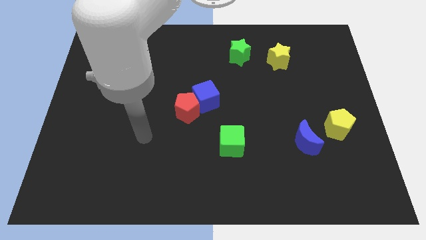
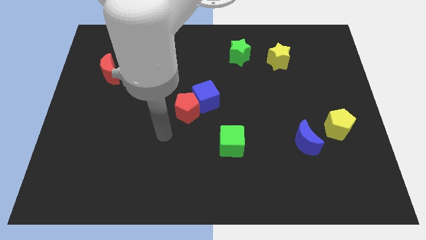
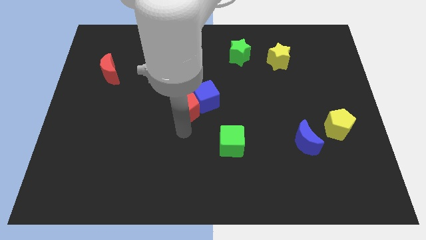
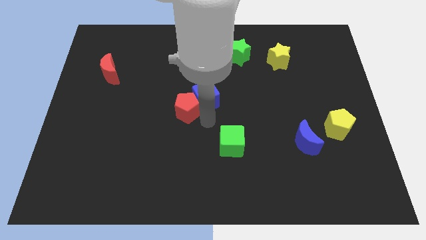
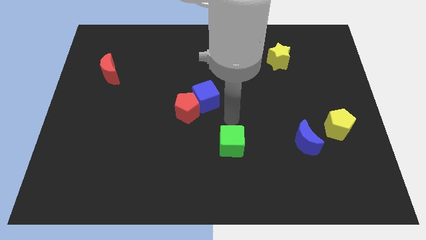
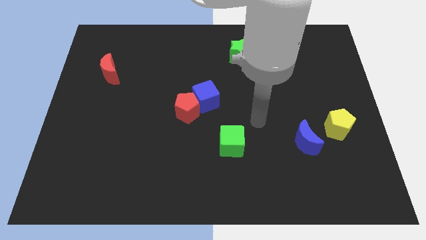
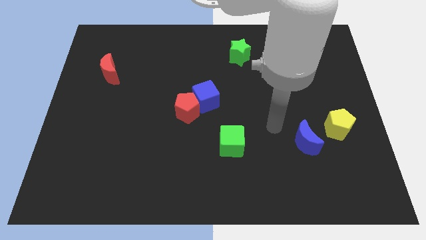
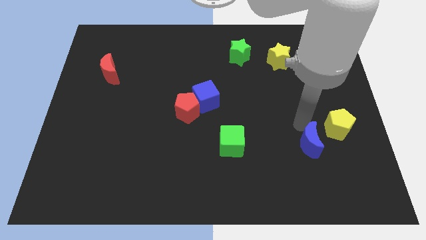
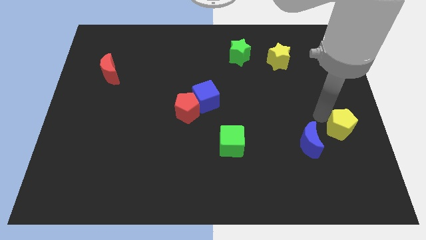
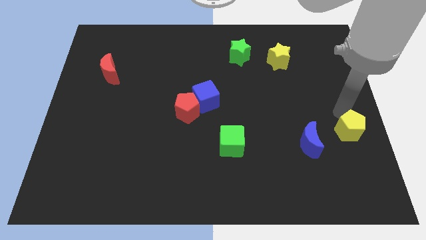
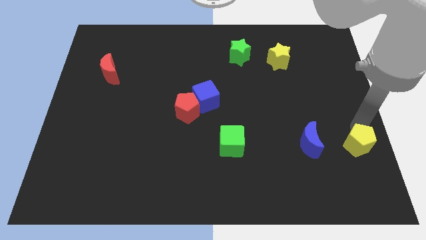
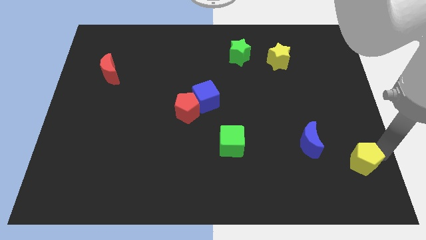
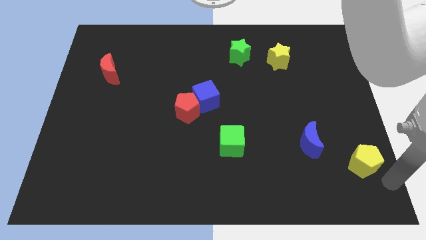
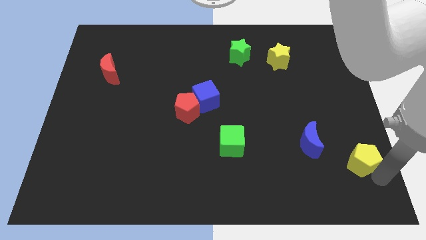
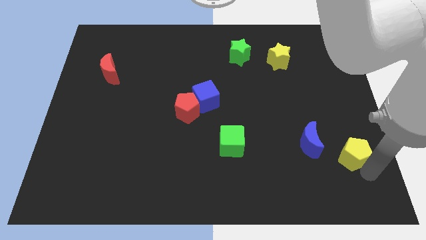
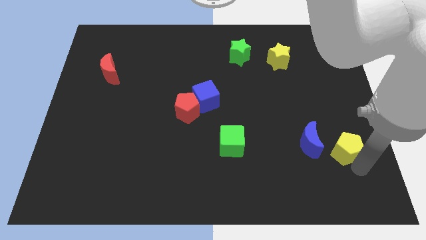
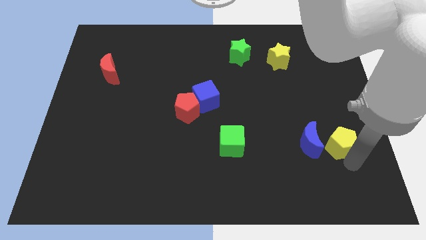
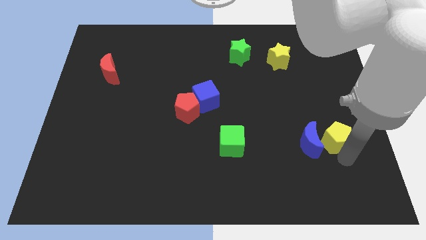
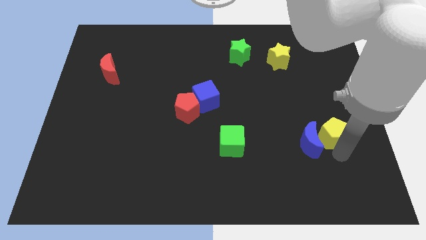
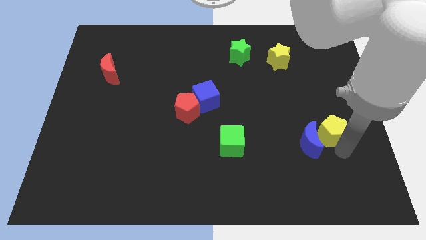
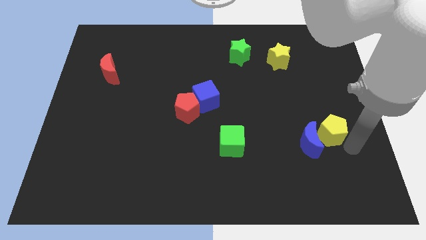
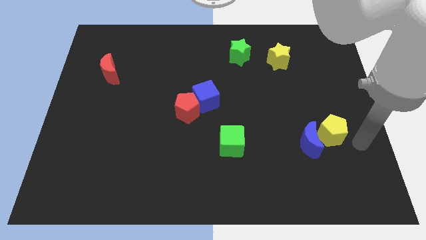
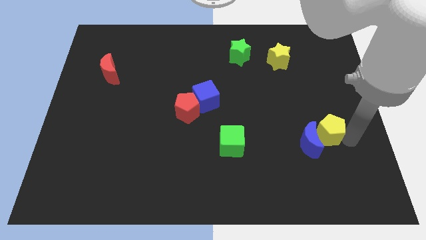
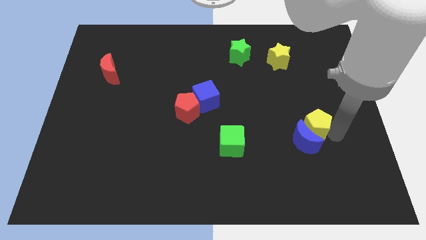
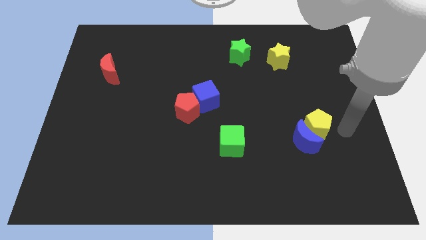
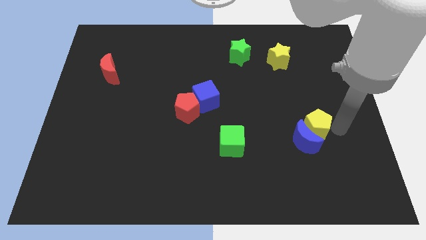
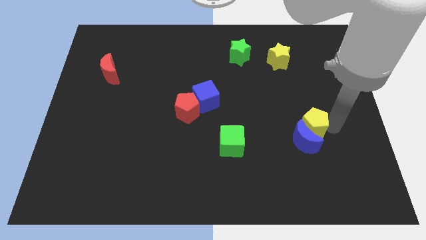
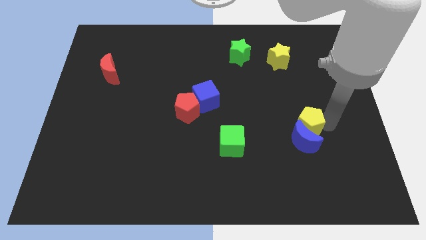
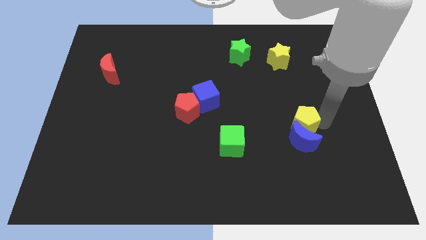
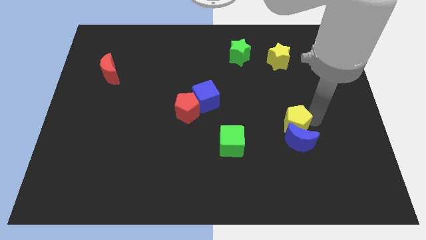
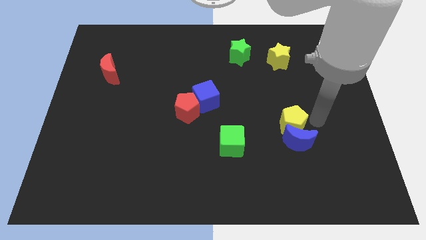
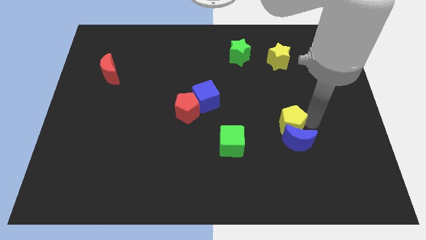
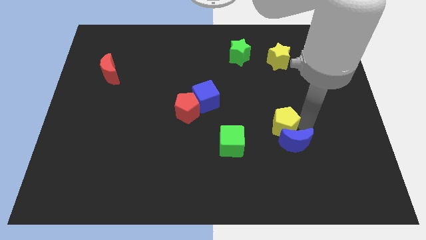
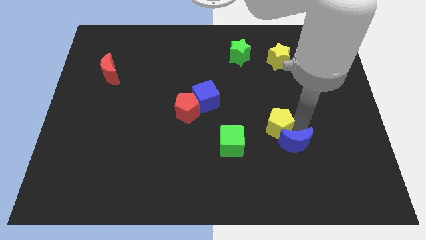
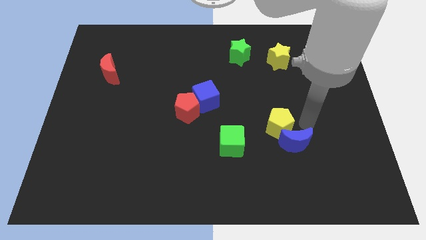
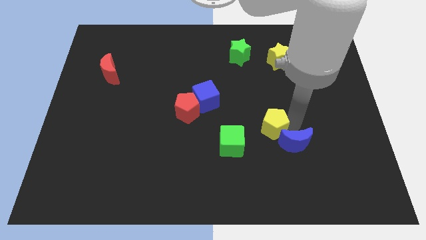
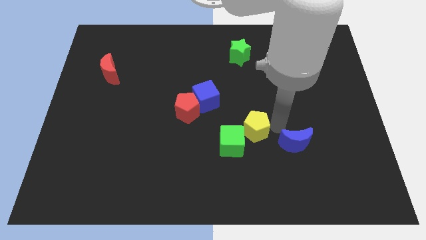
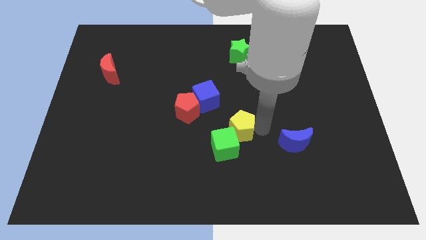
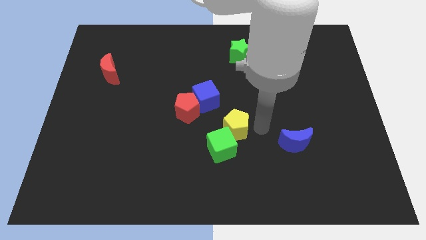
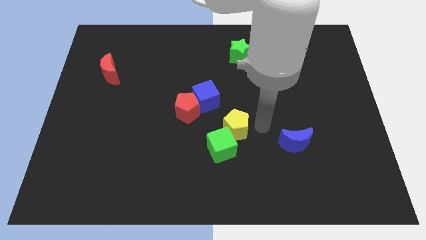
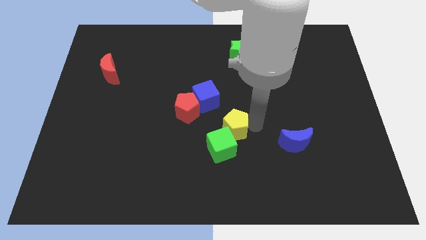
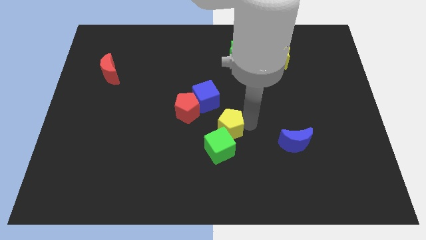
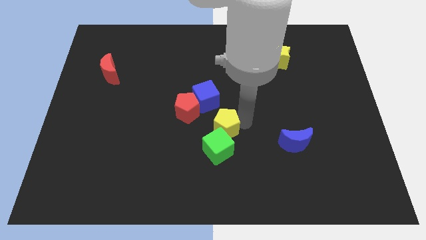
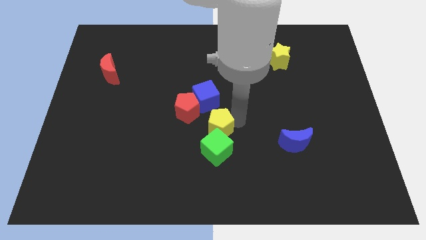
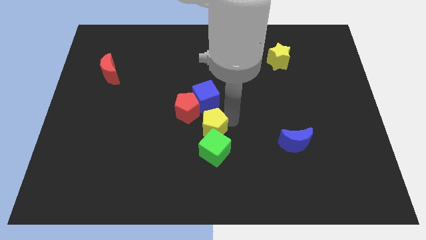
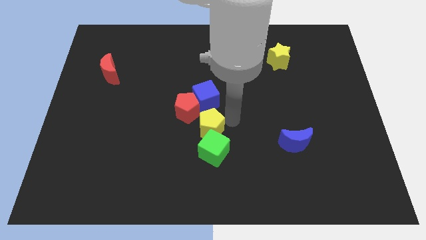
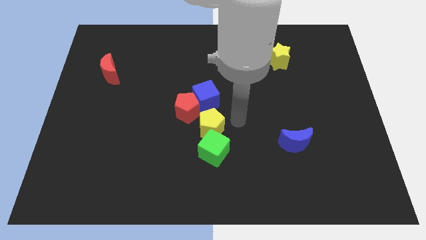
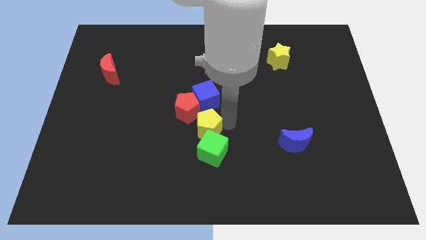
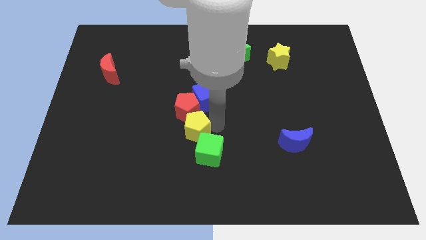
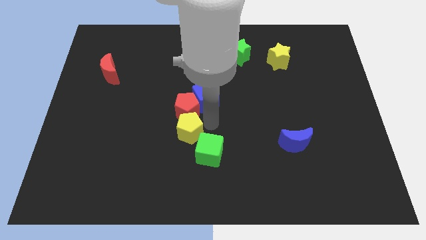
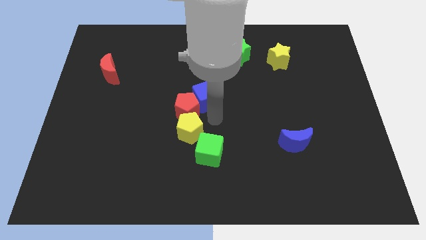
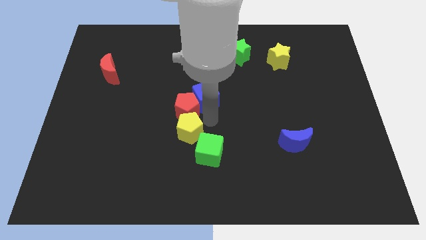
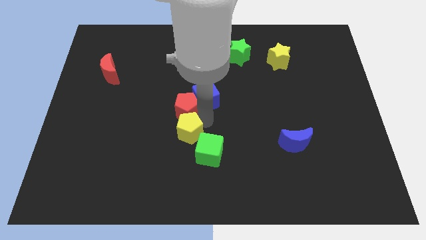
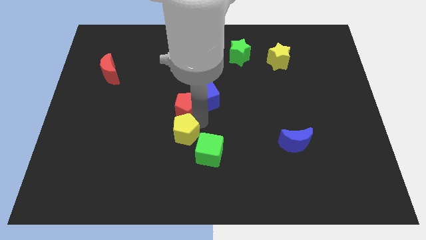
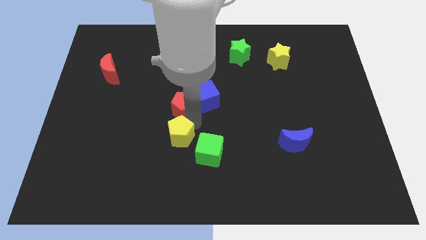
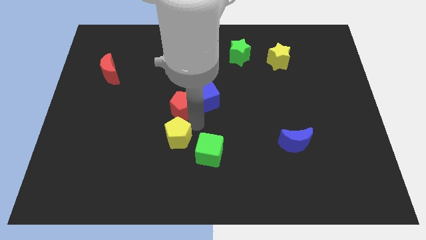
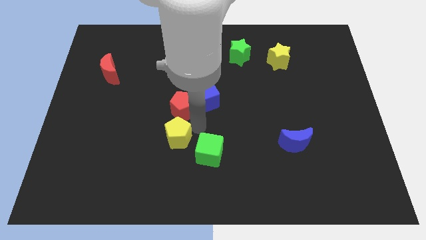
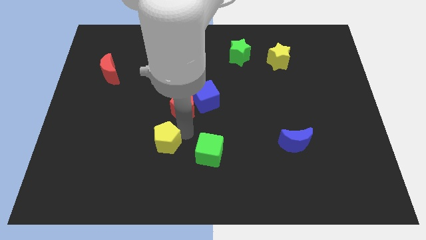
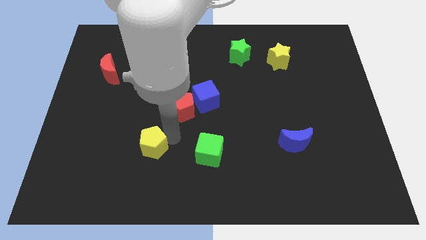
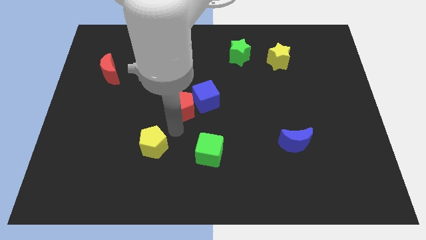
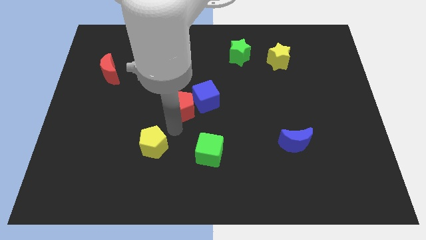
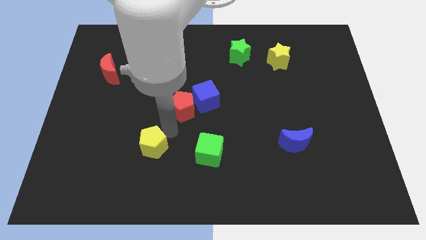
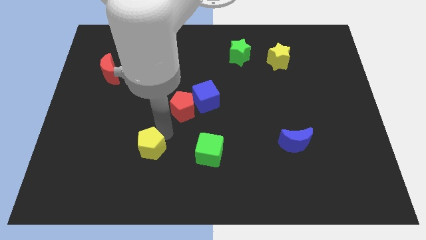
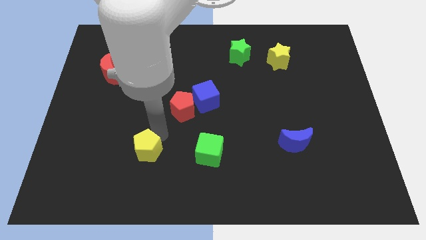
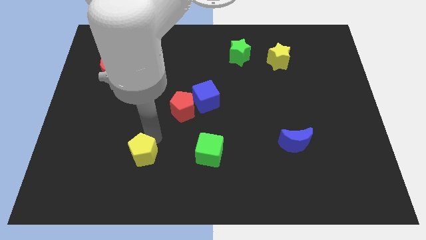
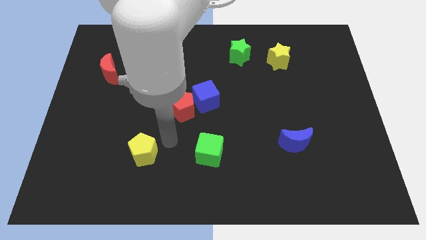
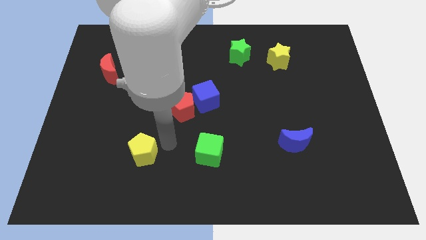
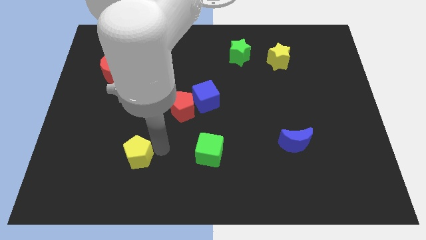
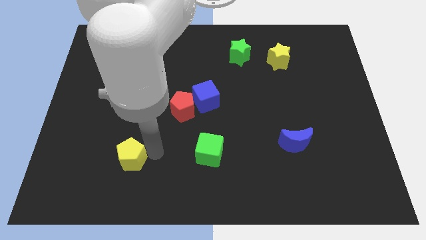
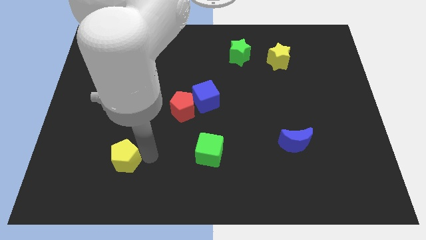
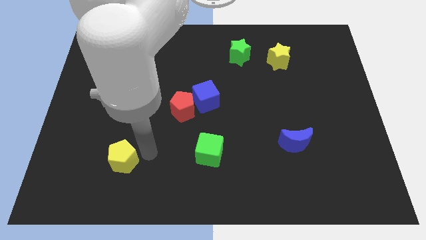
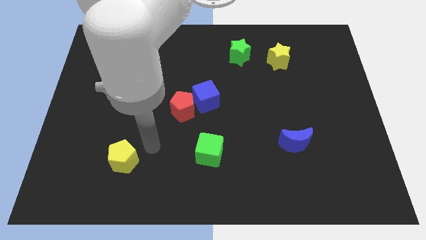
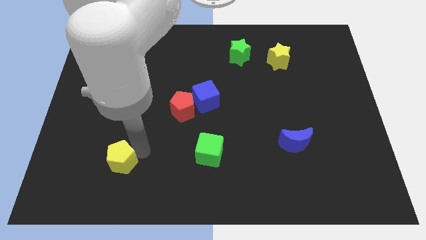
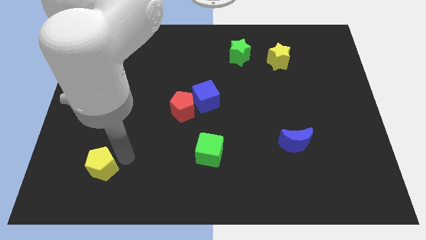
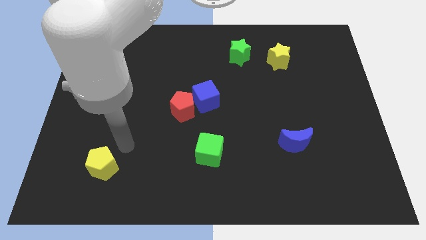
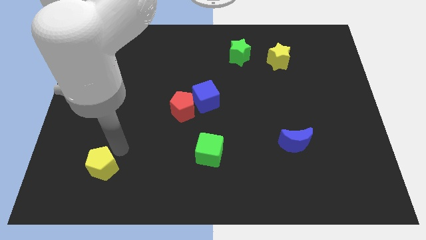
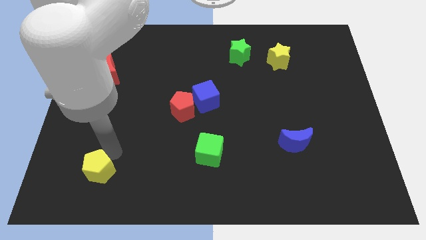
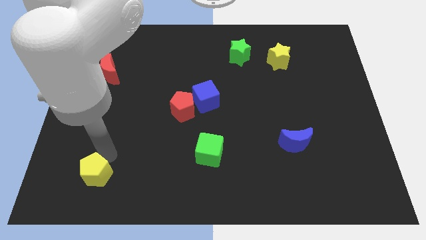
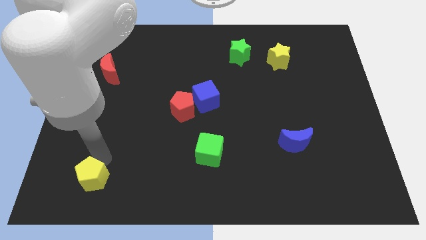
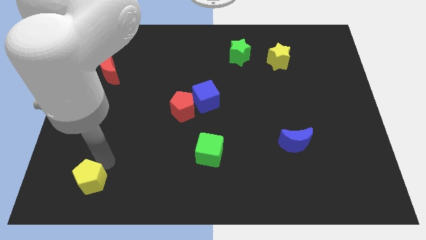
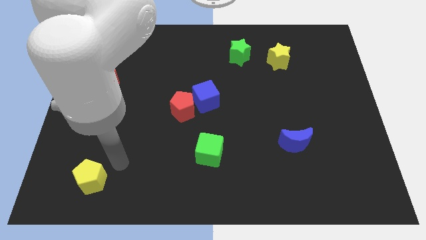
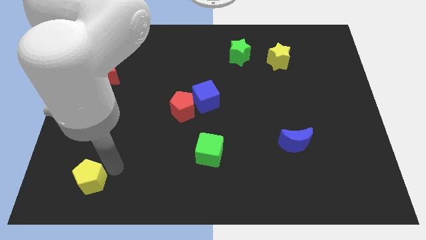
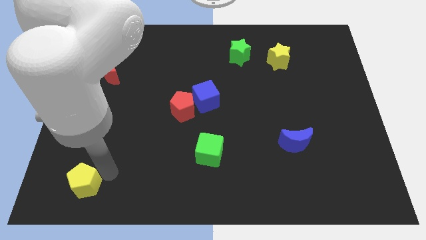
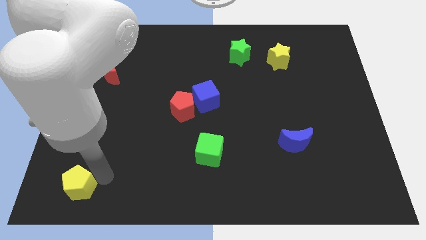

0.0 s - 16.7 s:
slide the yellow pentagon to the lower left corner
